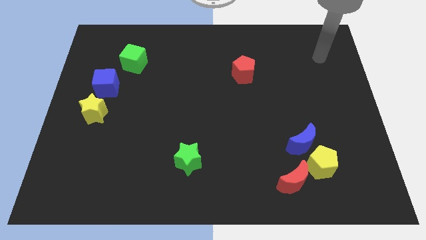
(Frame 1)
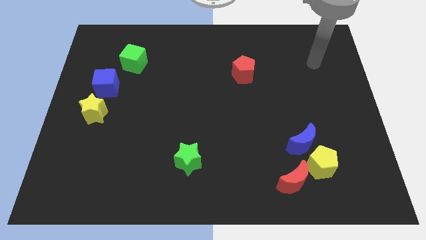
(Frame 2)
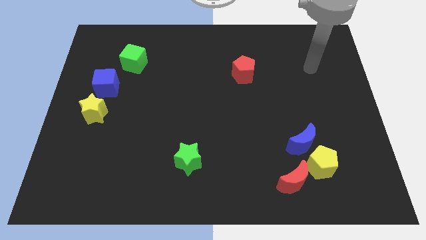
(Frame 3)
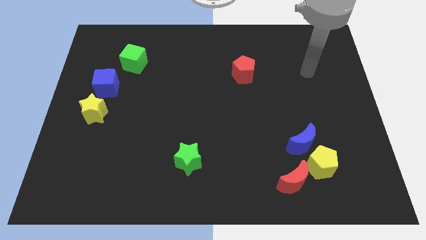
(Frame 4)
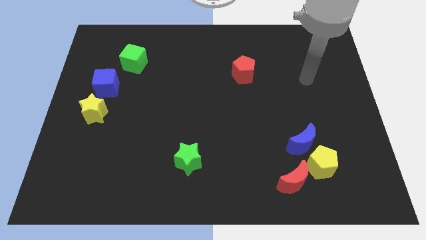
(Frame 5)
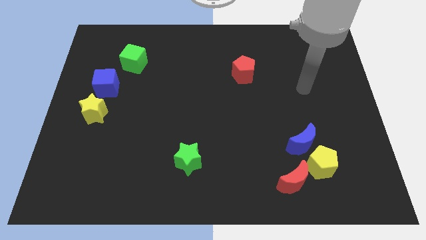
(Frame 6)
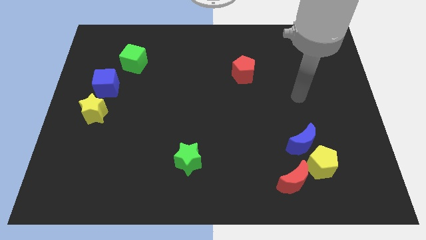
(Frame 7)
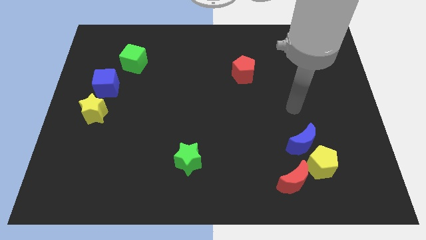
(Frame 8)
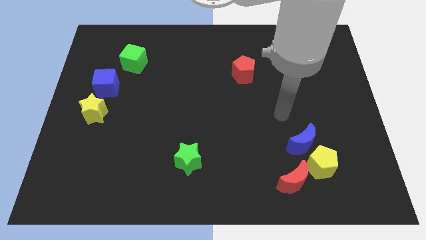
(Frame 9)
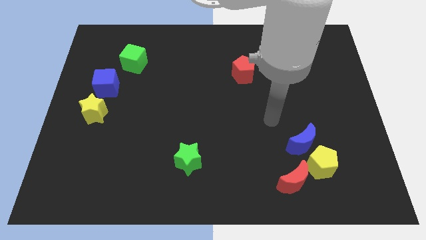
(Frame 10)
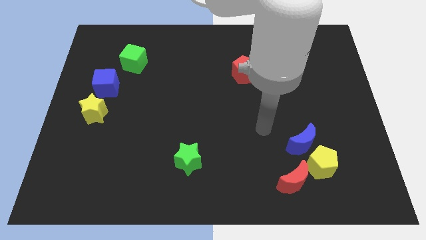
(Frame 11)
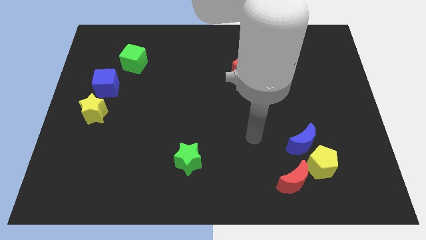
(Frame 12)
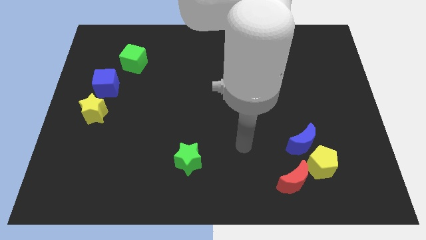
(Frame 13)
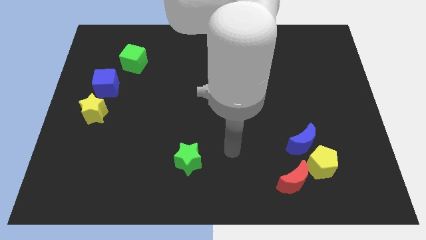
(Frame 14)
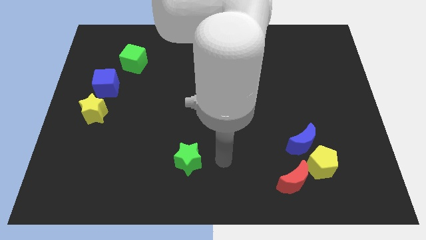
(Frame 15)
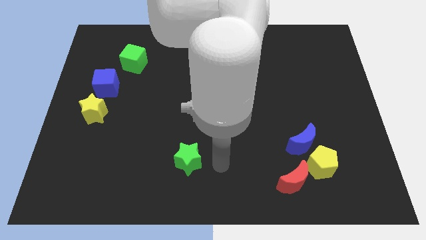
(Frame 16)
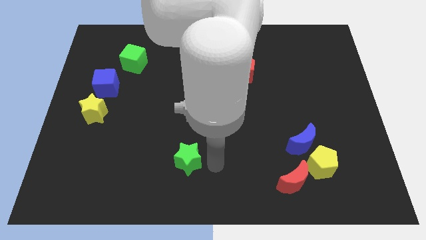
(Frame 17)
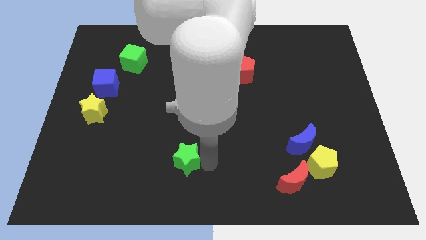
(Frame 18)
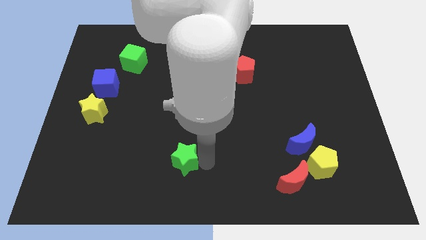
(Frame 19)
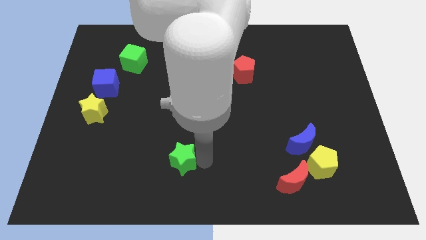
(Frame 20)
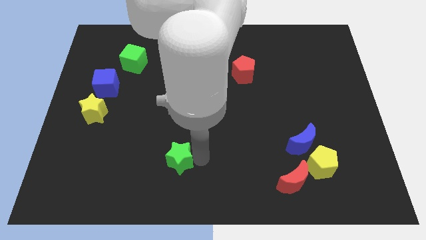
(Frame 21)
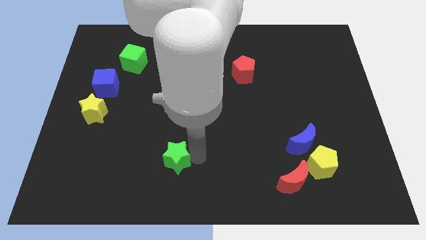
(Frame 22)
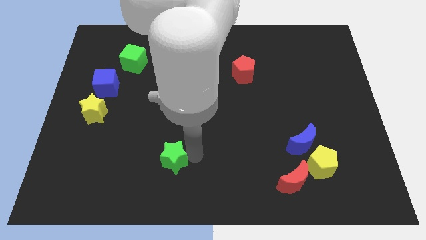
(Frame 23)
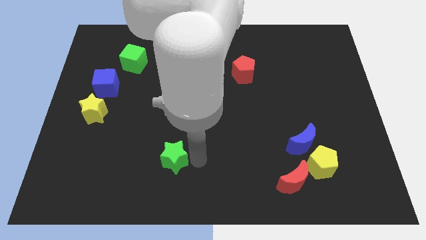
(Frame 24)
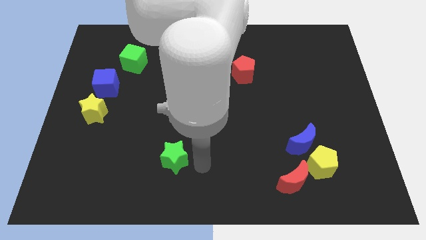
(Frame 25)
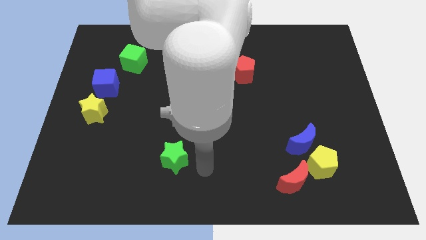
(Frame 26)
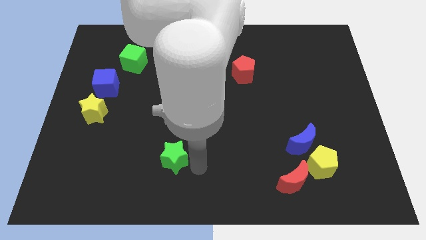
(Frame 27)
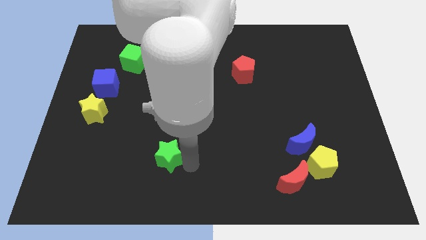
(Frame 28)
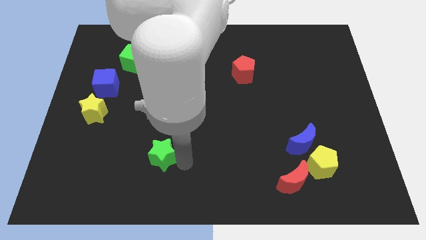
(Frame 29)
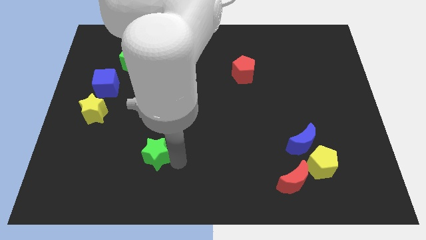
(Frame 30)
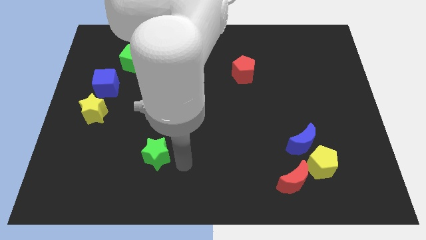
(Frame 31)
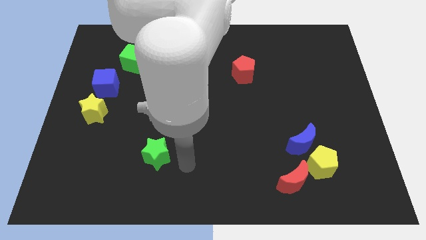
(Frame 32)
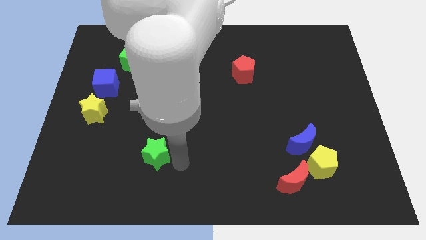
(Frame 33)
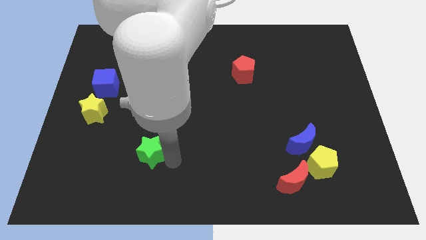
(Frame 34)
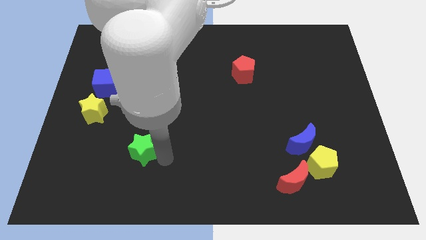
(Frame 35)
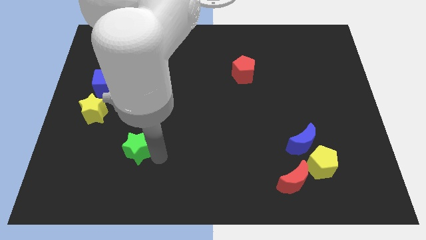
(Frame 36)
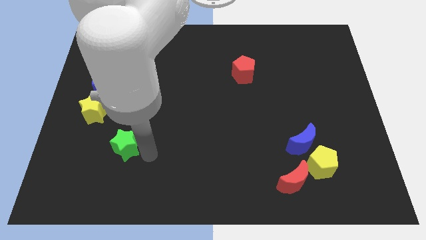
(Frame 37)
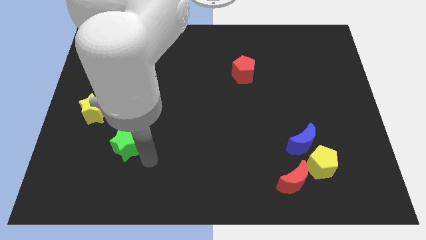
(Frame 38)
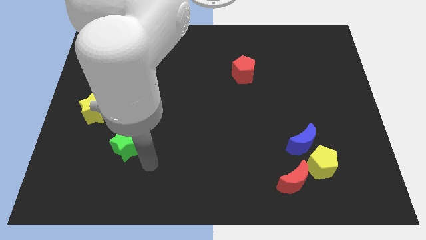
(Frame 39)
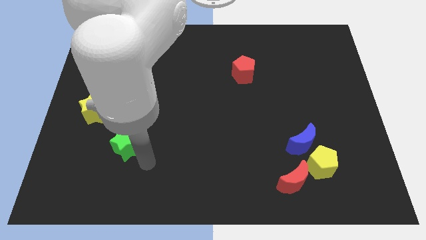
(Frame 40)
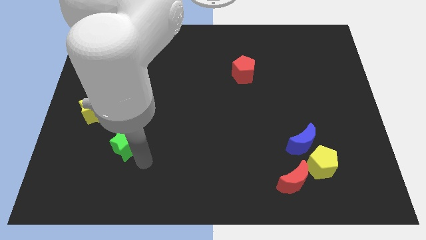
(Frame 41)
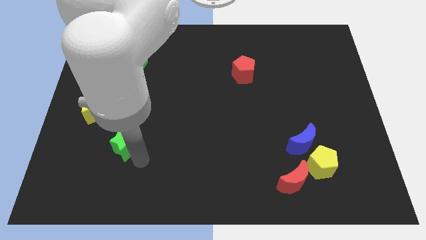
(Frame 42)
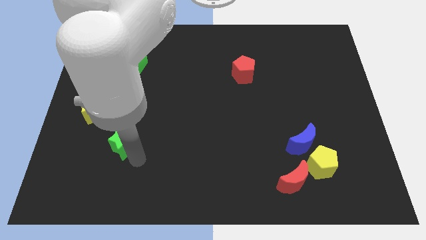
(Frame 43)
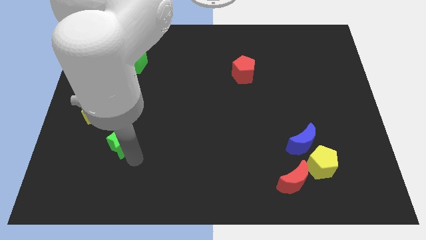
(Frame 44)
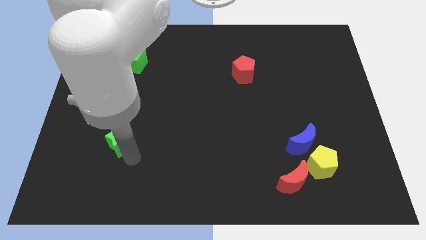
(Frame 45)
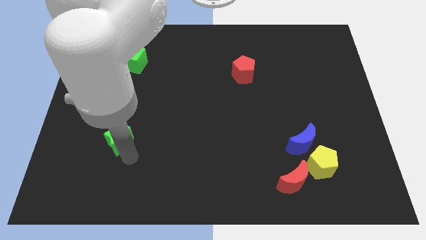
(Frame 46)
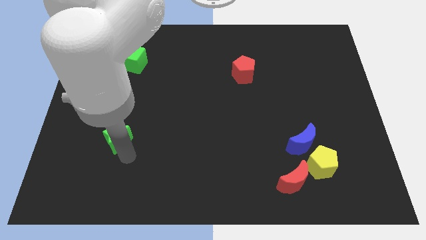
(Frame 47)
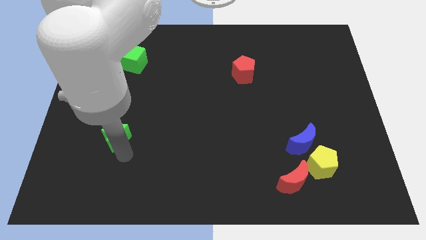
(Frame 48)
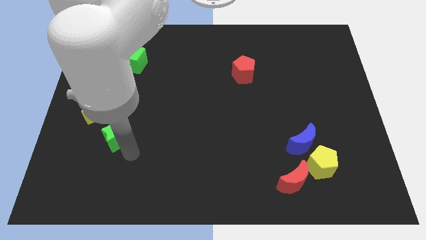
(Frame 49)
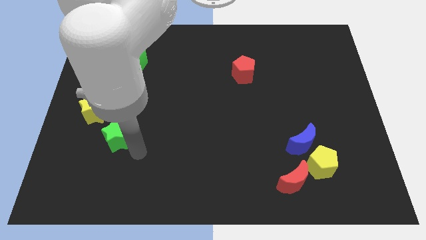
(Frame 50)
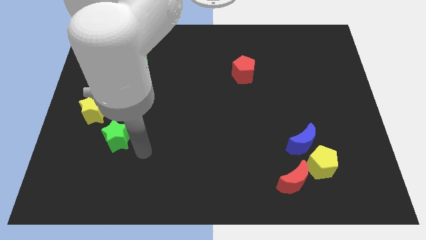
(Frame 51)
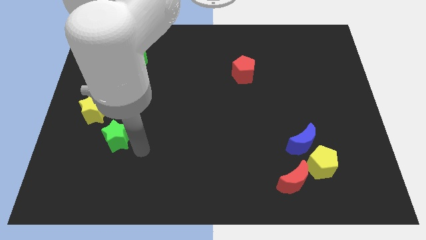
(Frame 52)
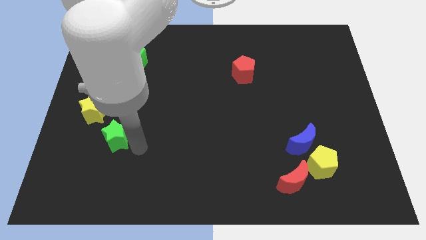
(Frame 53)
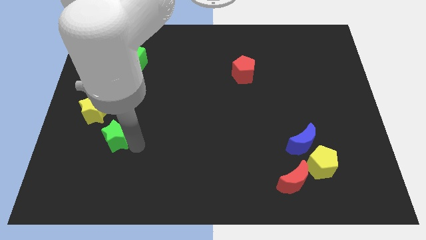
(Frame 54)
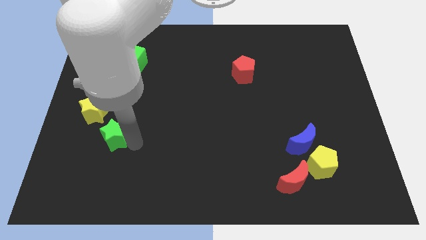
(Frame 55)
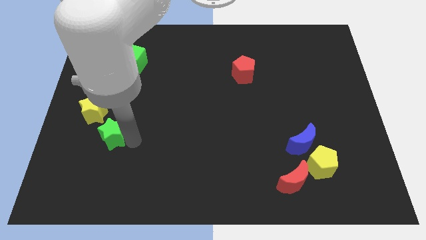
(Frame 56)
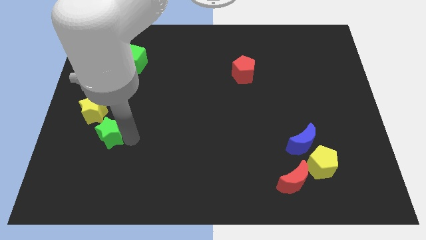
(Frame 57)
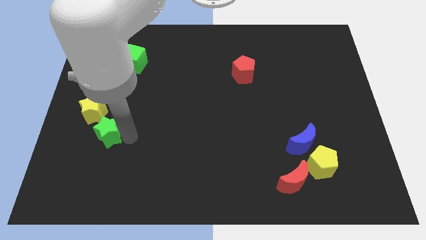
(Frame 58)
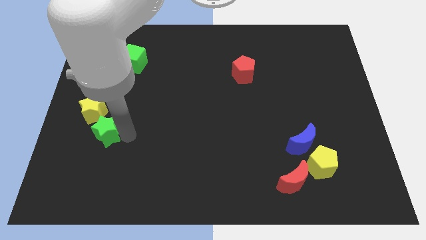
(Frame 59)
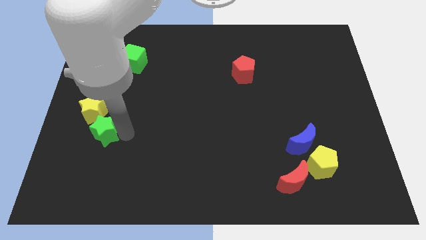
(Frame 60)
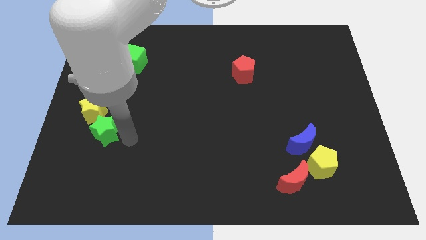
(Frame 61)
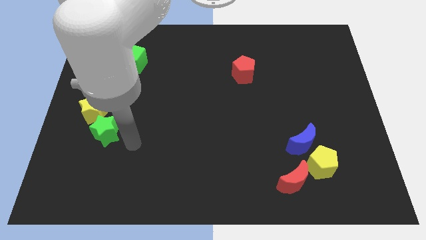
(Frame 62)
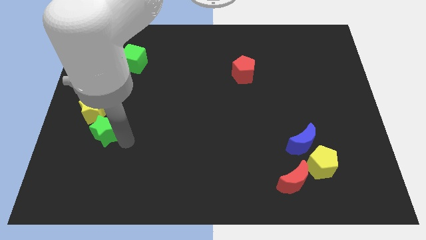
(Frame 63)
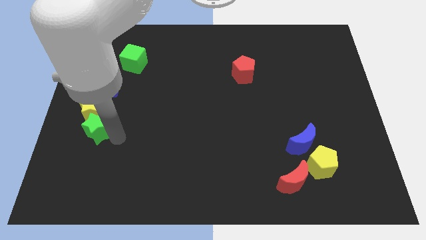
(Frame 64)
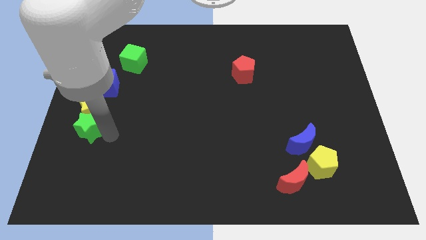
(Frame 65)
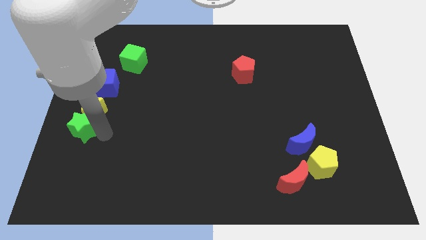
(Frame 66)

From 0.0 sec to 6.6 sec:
move the green star to the left side of the board
